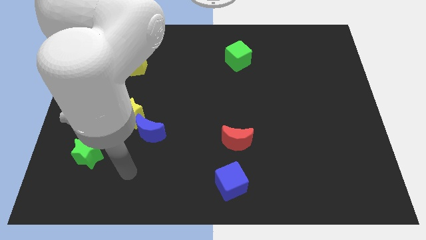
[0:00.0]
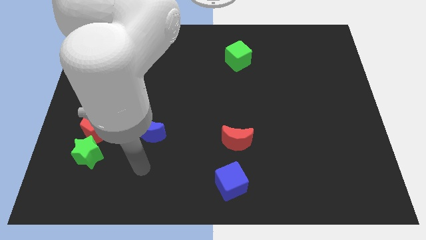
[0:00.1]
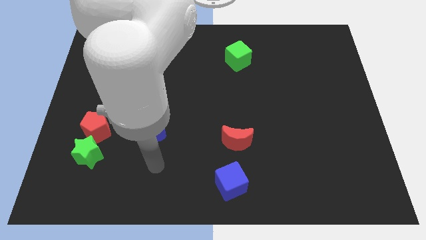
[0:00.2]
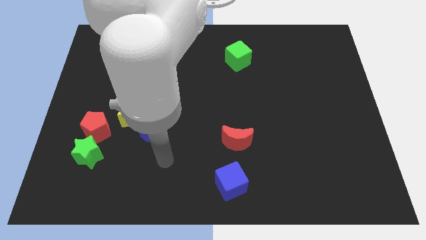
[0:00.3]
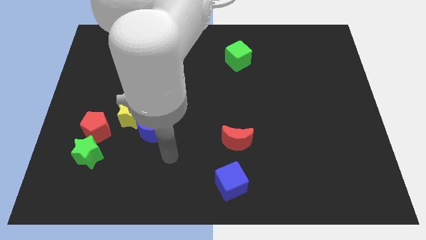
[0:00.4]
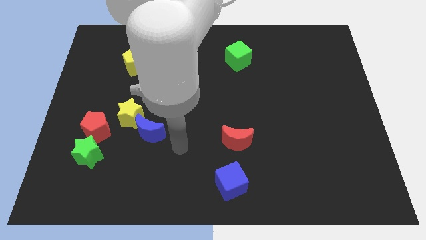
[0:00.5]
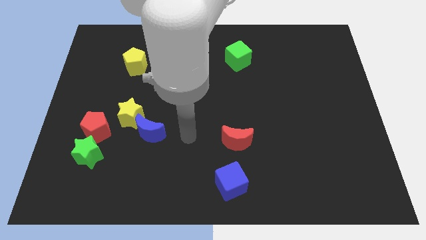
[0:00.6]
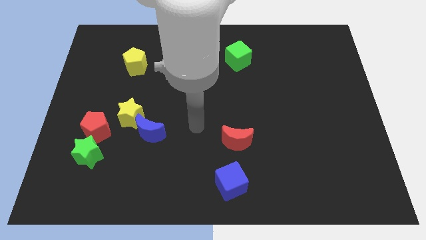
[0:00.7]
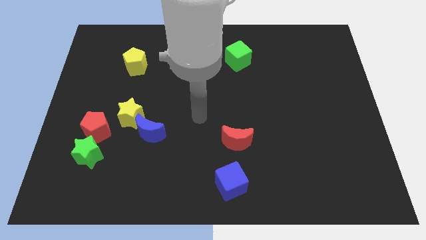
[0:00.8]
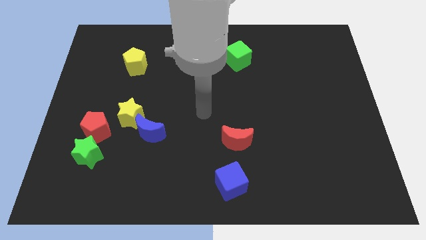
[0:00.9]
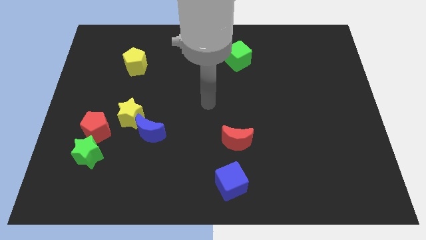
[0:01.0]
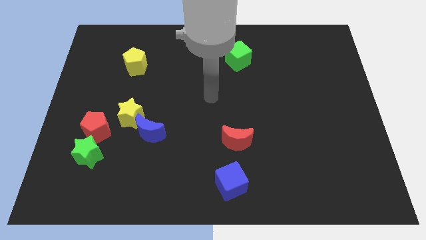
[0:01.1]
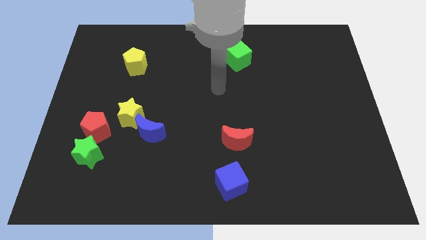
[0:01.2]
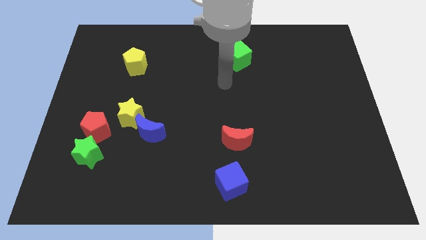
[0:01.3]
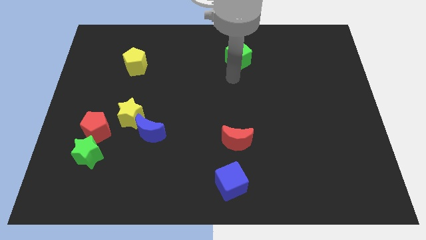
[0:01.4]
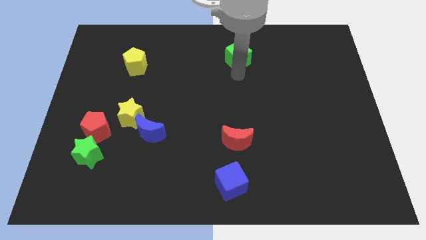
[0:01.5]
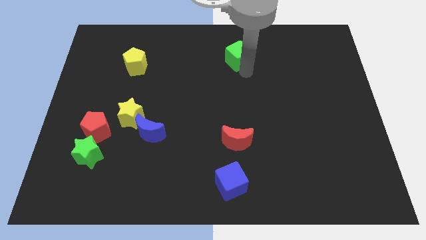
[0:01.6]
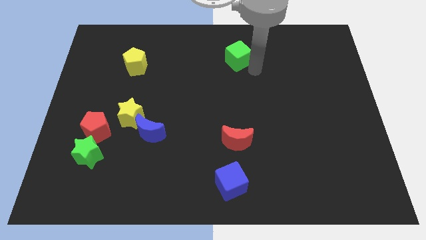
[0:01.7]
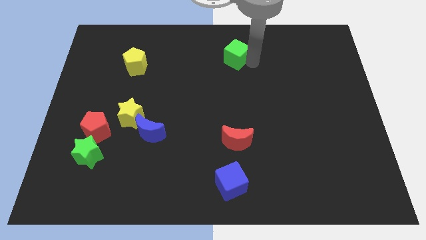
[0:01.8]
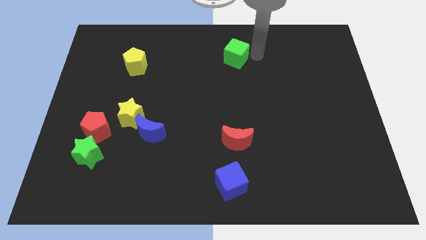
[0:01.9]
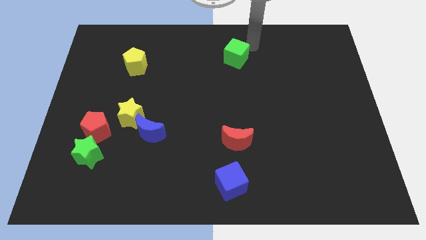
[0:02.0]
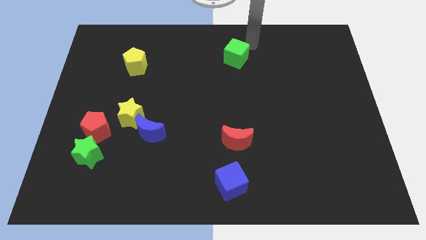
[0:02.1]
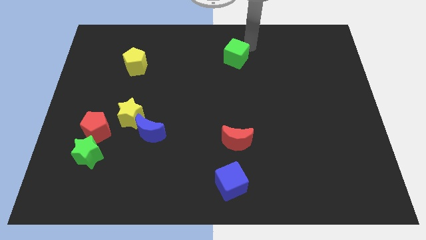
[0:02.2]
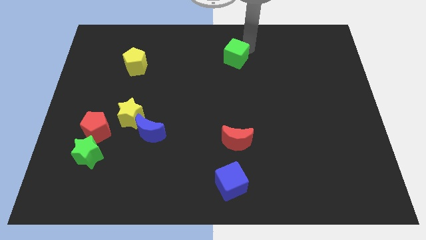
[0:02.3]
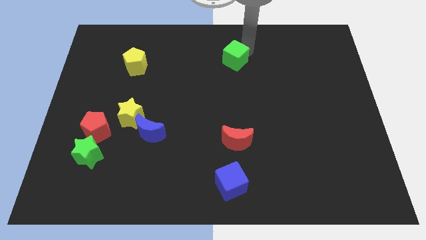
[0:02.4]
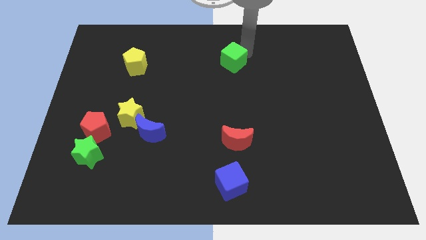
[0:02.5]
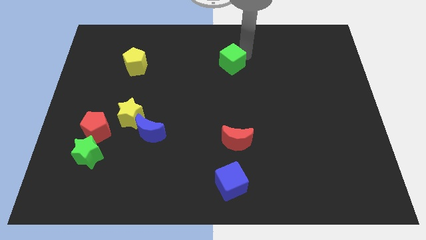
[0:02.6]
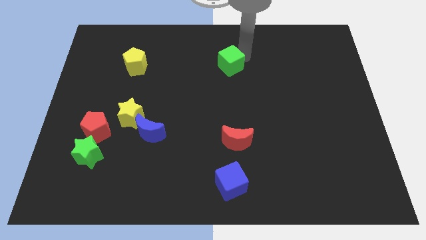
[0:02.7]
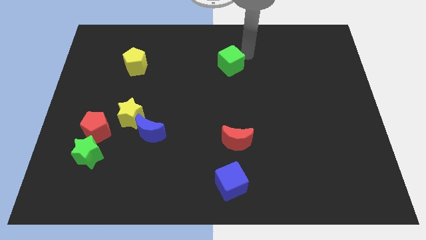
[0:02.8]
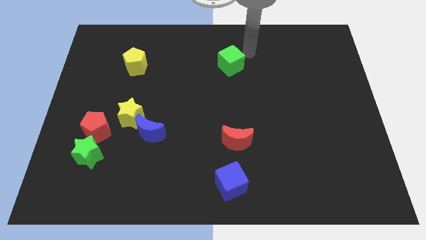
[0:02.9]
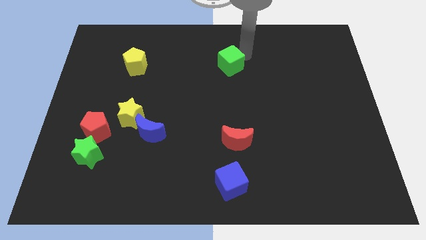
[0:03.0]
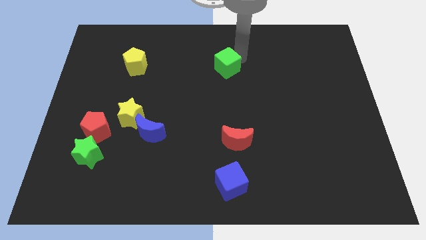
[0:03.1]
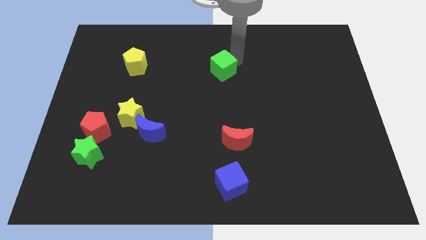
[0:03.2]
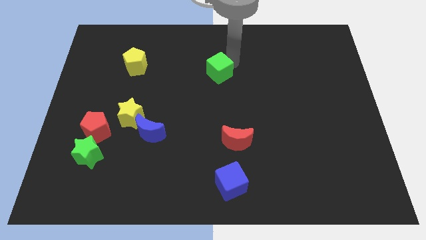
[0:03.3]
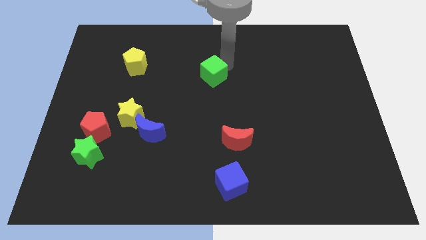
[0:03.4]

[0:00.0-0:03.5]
slide the green cube down and to the left slightly

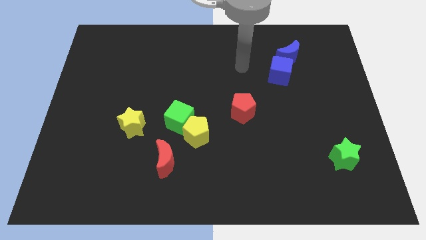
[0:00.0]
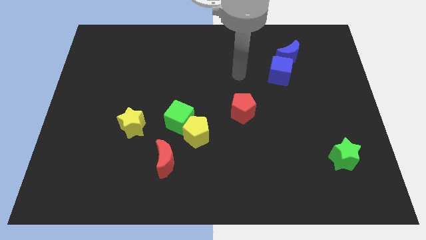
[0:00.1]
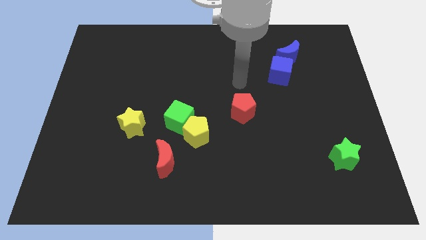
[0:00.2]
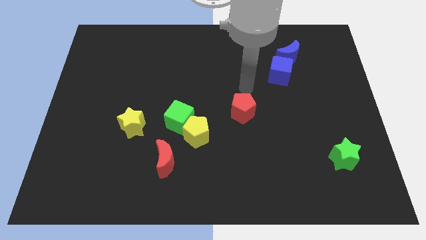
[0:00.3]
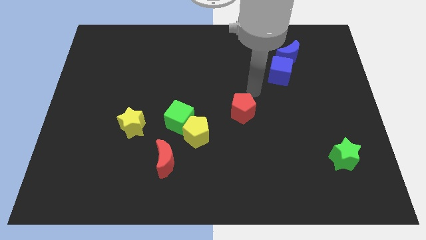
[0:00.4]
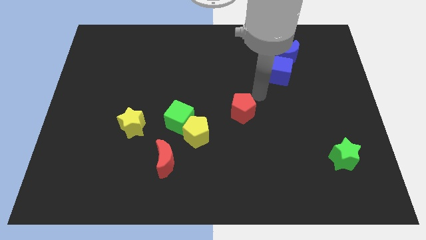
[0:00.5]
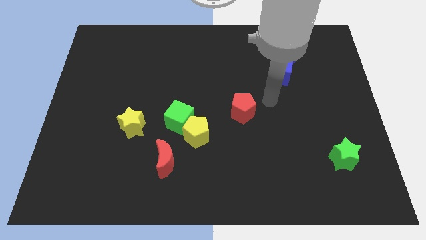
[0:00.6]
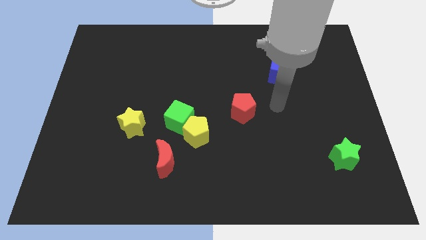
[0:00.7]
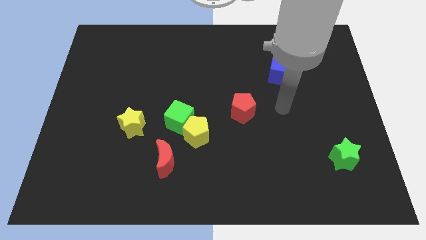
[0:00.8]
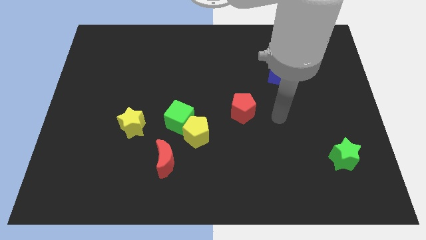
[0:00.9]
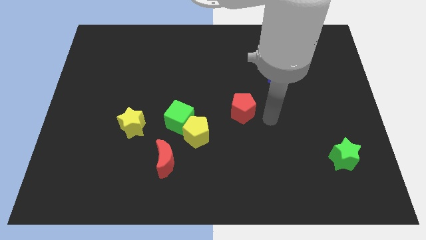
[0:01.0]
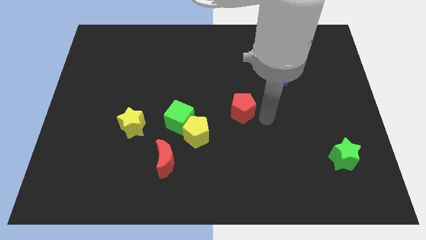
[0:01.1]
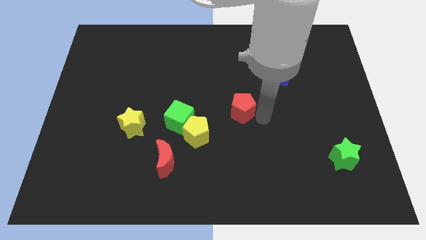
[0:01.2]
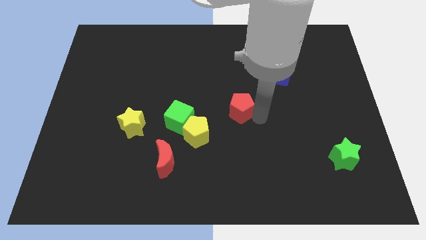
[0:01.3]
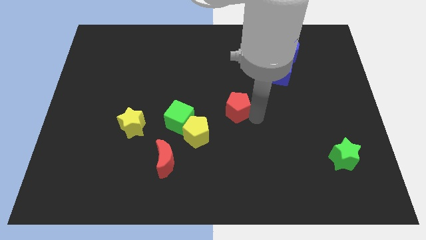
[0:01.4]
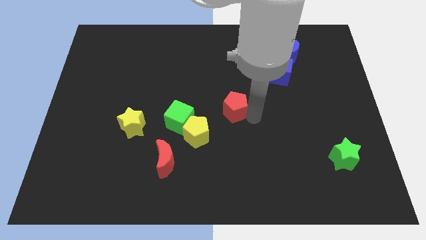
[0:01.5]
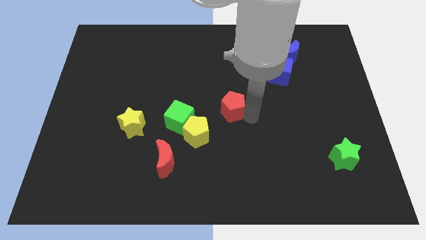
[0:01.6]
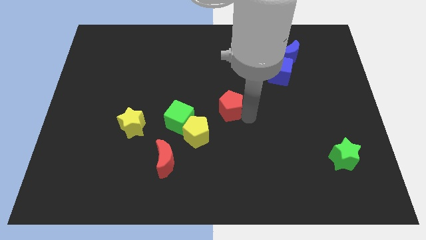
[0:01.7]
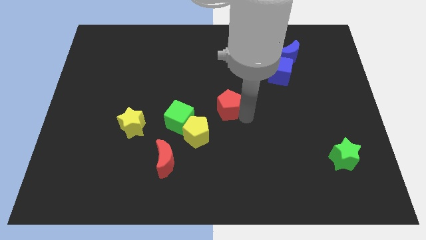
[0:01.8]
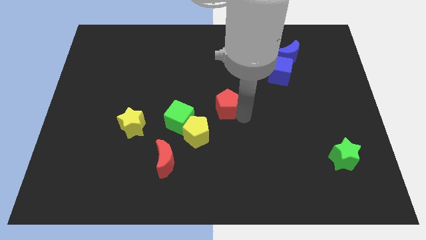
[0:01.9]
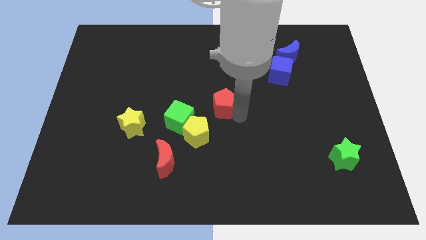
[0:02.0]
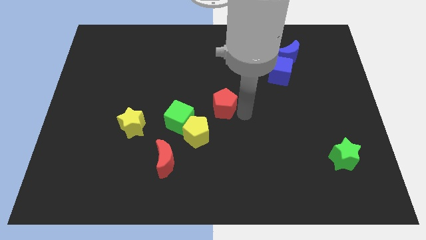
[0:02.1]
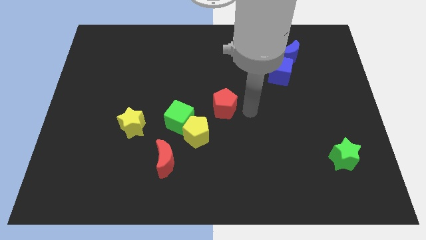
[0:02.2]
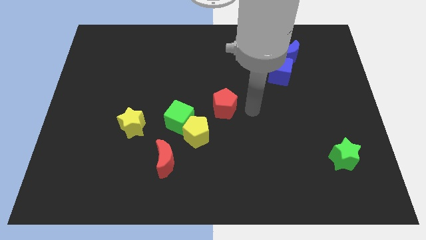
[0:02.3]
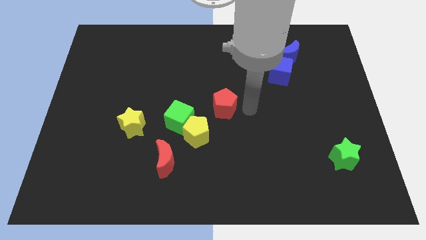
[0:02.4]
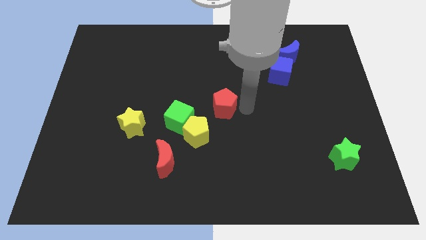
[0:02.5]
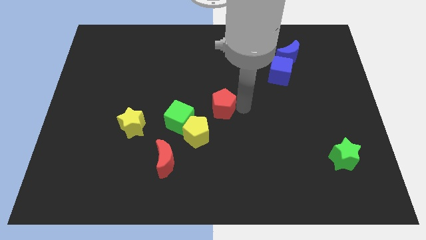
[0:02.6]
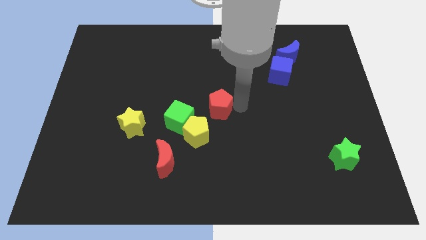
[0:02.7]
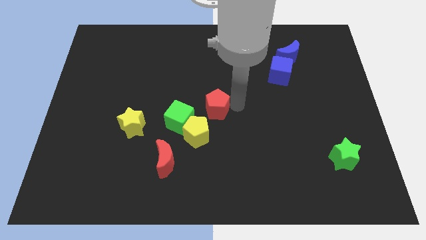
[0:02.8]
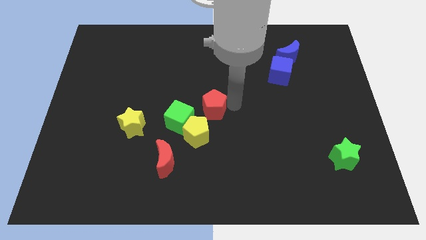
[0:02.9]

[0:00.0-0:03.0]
move the red pentagon left a bit

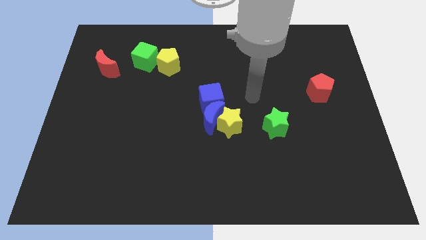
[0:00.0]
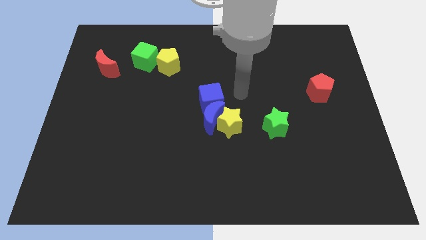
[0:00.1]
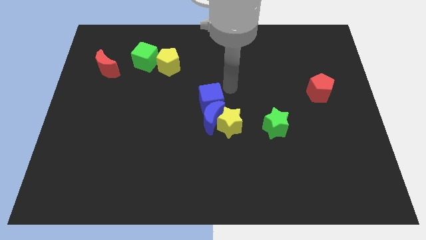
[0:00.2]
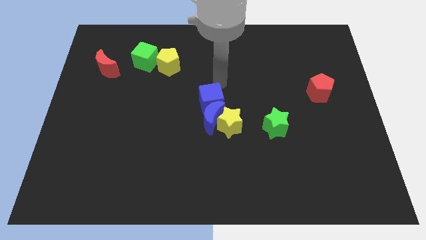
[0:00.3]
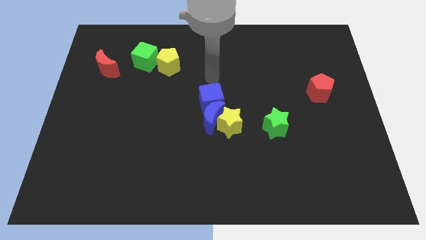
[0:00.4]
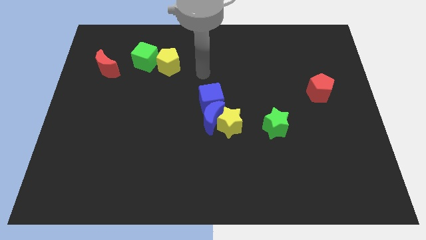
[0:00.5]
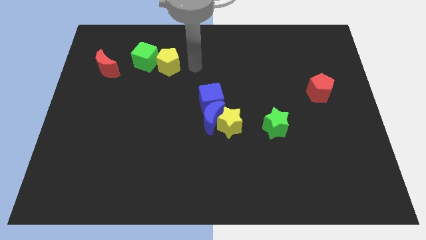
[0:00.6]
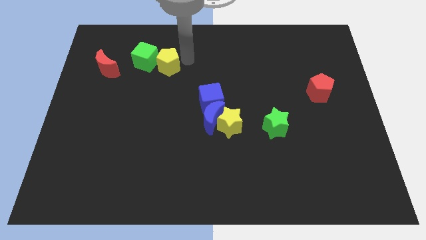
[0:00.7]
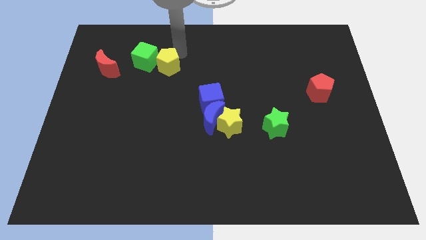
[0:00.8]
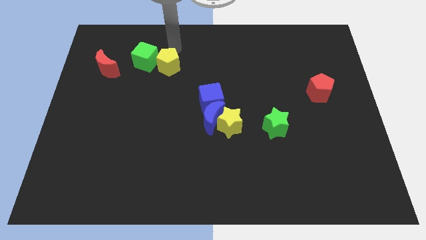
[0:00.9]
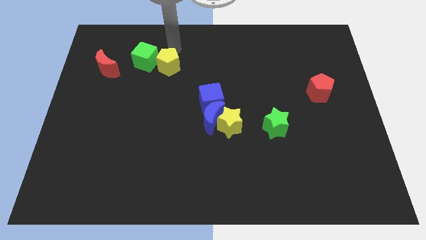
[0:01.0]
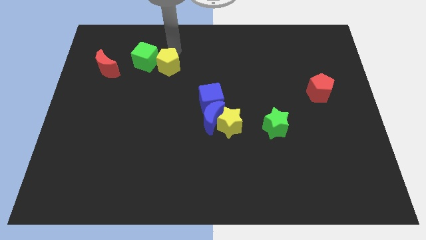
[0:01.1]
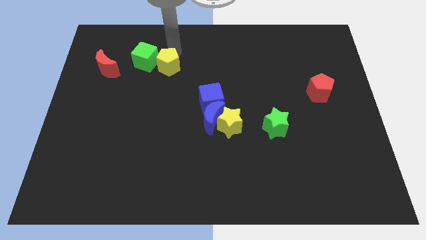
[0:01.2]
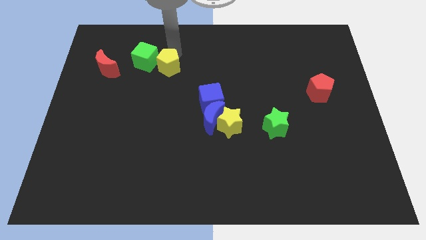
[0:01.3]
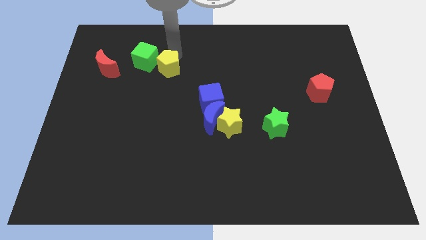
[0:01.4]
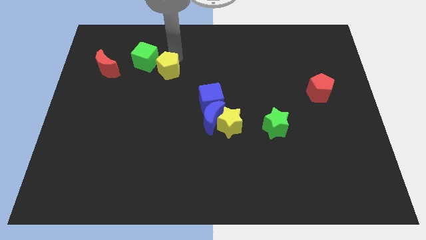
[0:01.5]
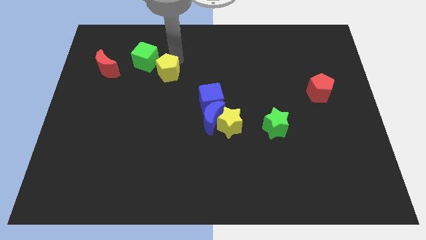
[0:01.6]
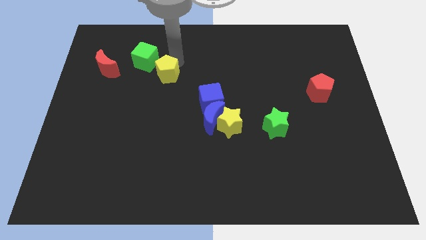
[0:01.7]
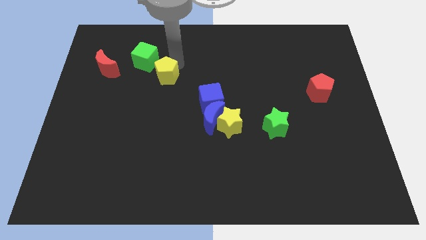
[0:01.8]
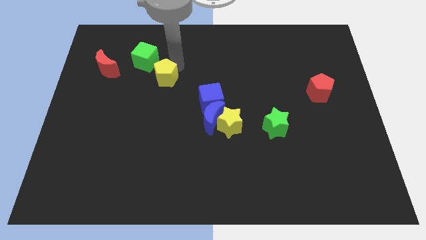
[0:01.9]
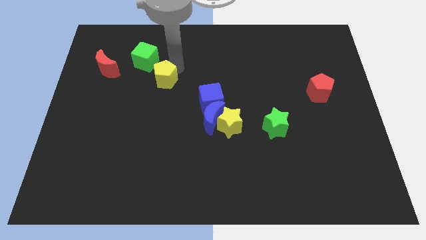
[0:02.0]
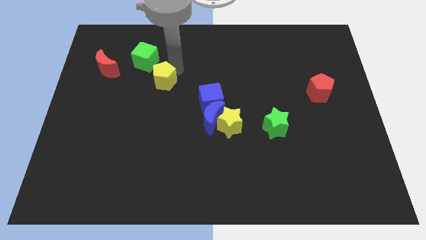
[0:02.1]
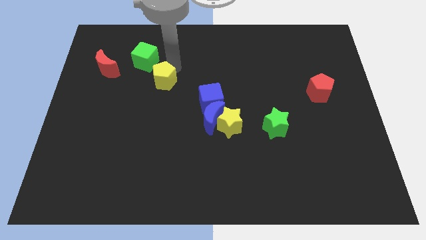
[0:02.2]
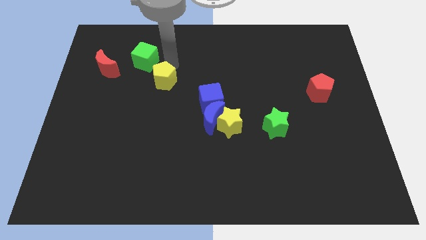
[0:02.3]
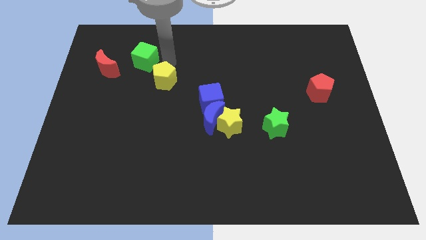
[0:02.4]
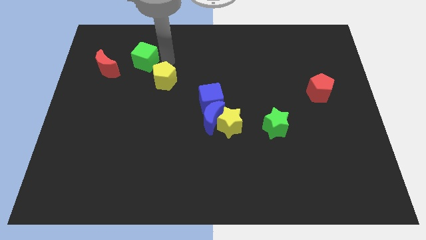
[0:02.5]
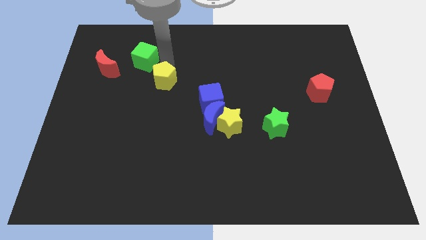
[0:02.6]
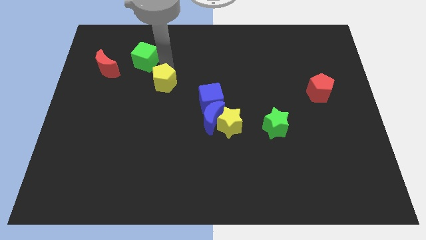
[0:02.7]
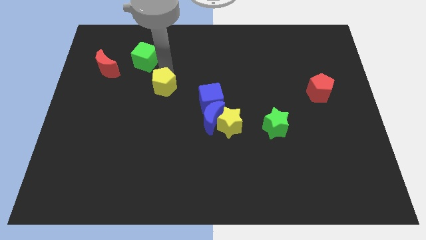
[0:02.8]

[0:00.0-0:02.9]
push the yellow pentagon a bit downwards
